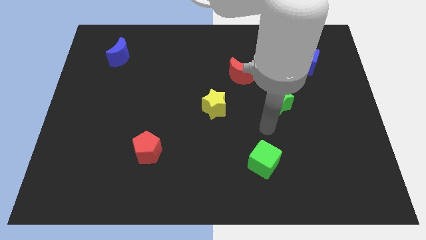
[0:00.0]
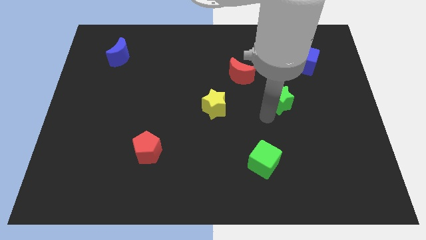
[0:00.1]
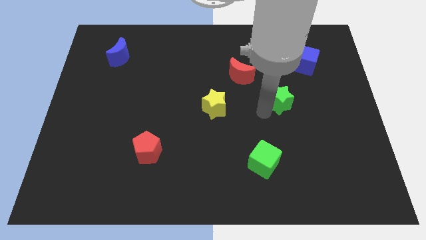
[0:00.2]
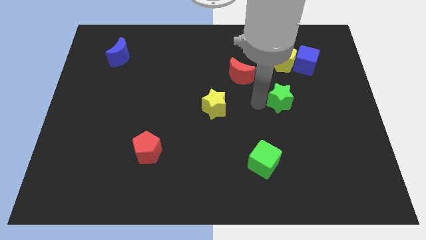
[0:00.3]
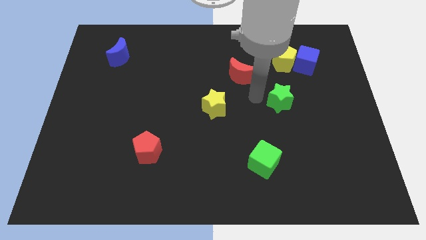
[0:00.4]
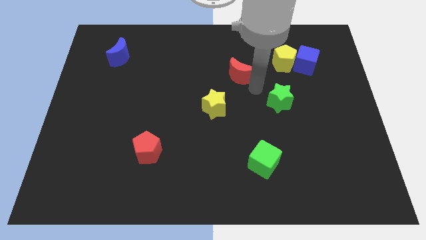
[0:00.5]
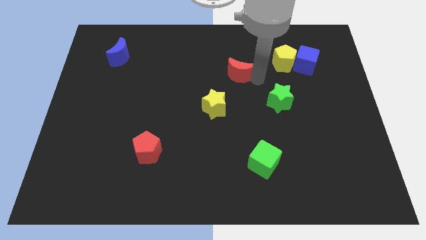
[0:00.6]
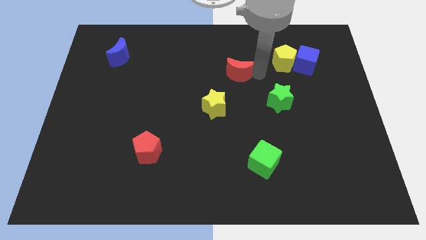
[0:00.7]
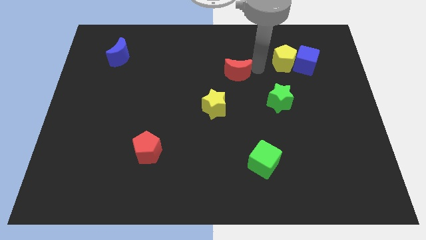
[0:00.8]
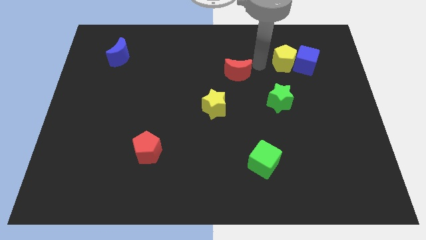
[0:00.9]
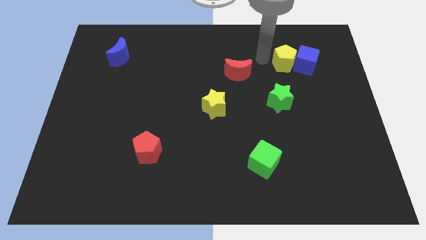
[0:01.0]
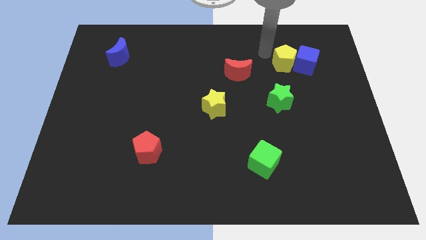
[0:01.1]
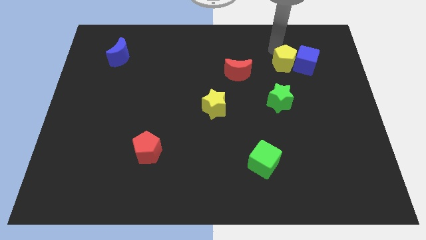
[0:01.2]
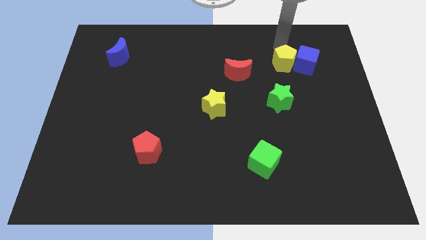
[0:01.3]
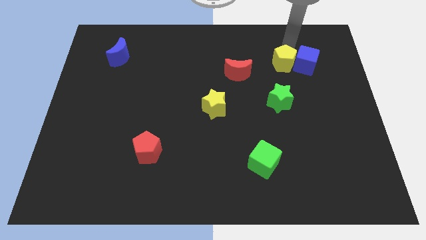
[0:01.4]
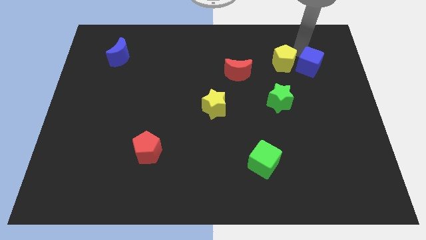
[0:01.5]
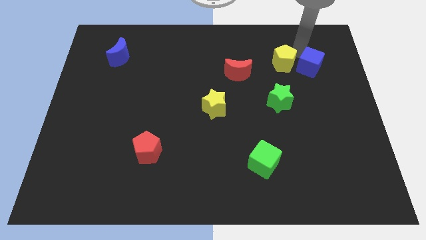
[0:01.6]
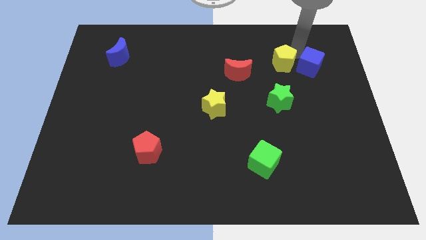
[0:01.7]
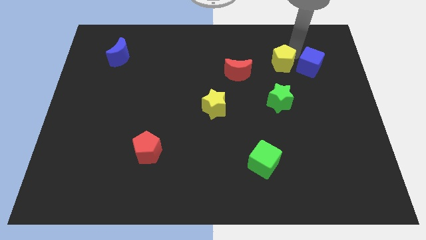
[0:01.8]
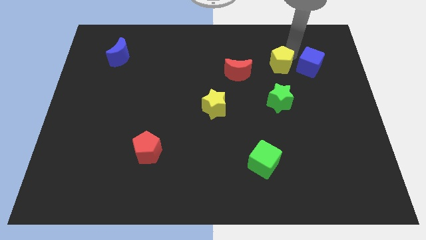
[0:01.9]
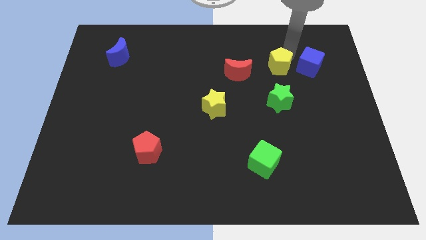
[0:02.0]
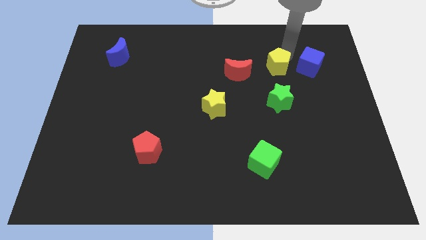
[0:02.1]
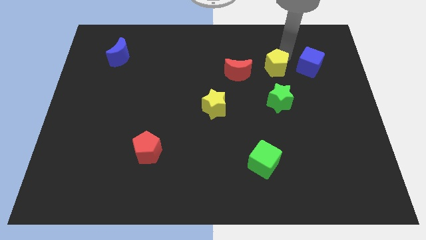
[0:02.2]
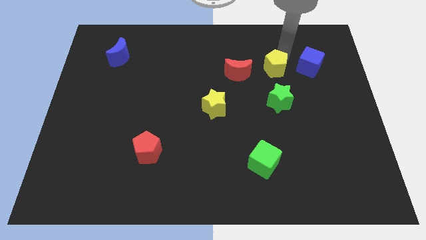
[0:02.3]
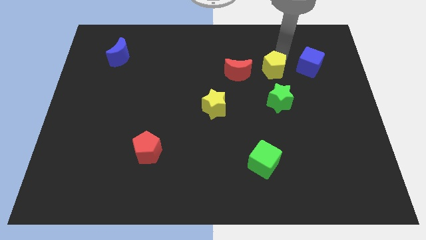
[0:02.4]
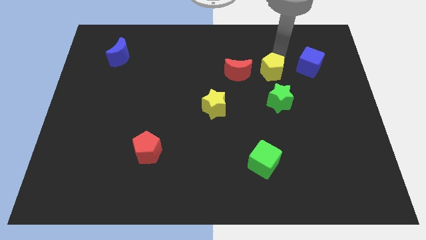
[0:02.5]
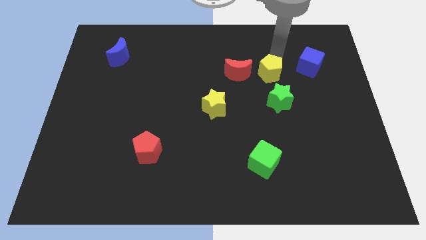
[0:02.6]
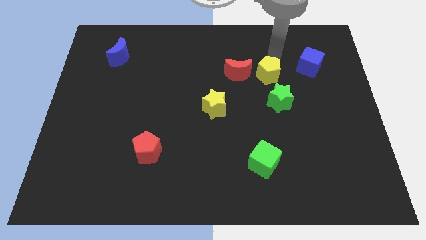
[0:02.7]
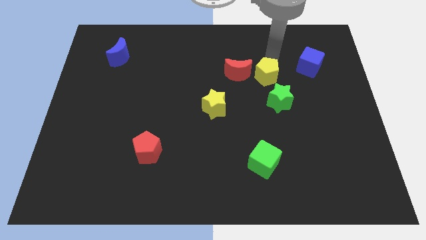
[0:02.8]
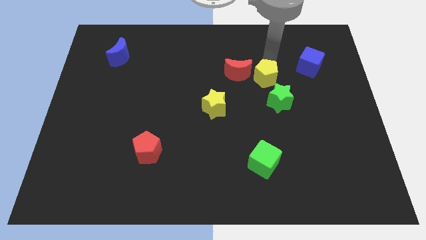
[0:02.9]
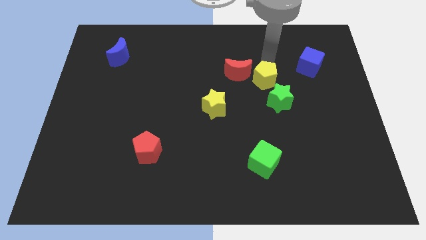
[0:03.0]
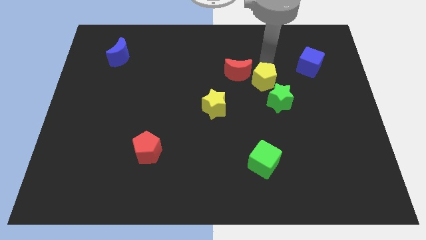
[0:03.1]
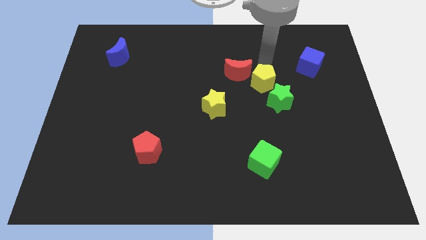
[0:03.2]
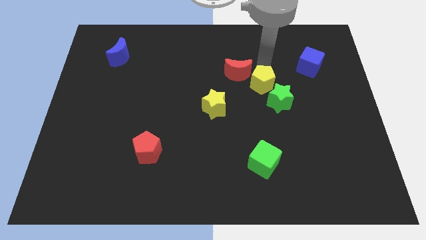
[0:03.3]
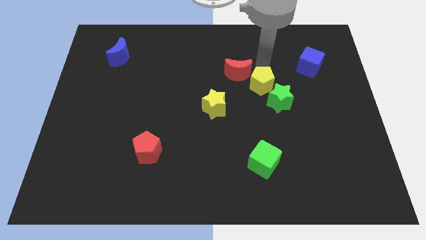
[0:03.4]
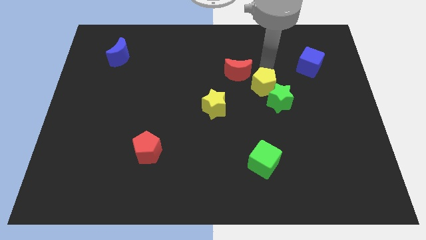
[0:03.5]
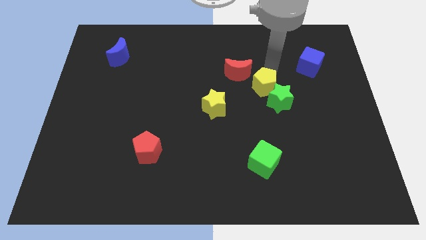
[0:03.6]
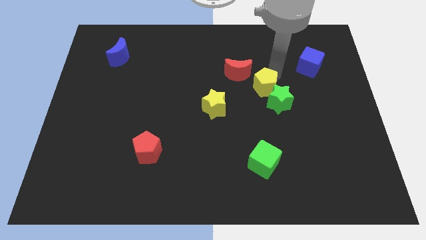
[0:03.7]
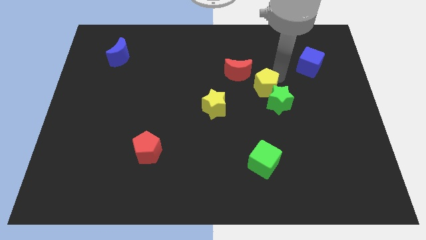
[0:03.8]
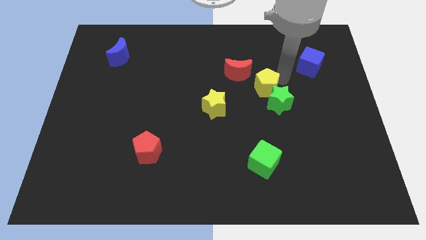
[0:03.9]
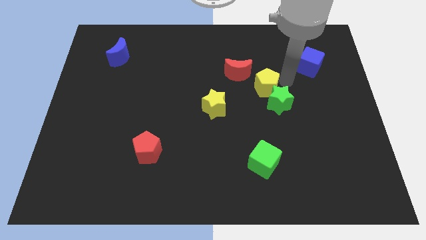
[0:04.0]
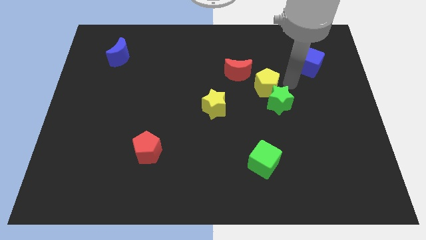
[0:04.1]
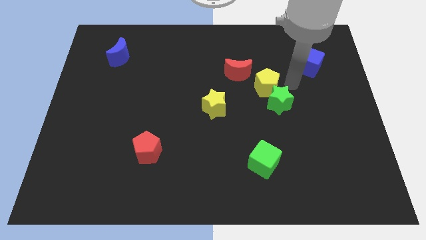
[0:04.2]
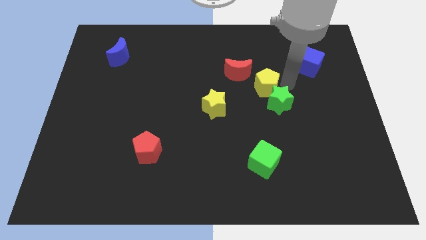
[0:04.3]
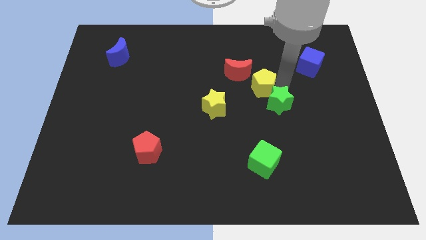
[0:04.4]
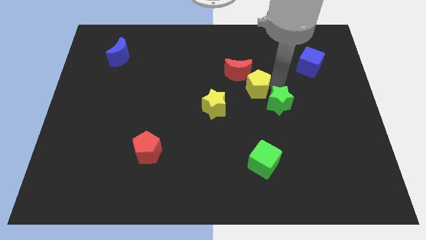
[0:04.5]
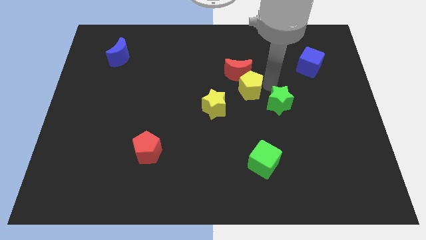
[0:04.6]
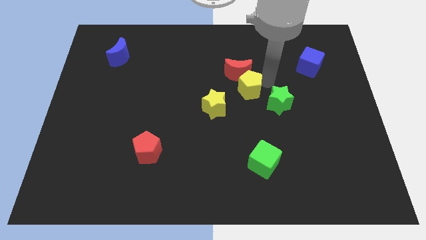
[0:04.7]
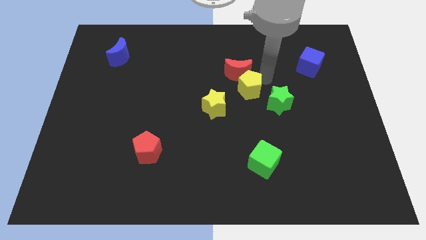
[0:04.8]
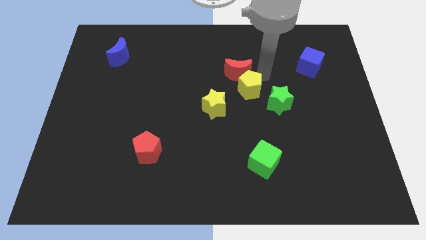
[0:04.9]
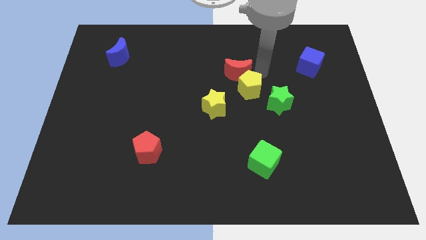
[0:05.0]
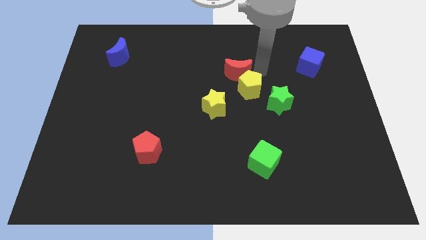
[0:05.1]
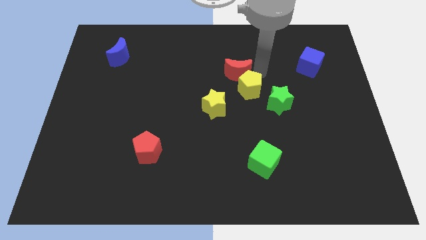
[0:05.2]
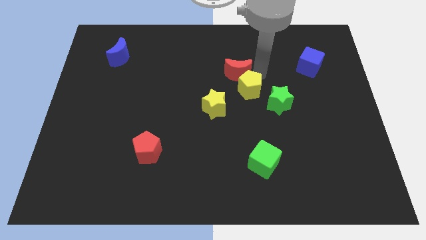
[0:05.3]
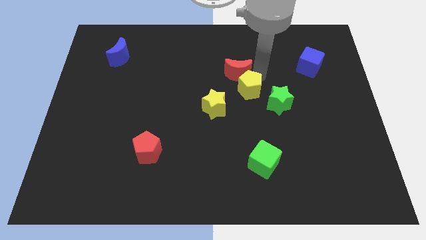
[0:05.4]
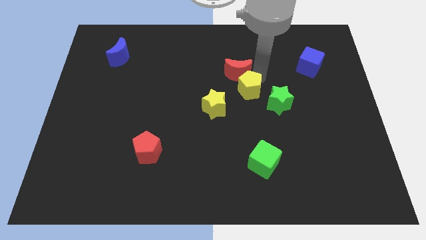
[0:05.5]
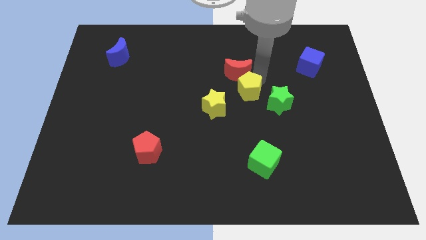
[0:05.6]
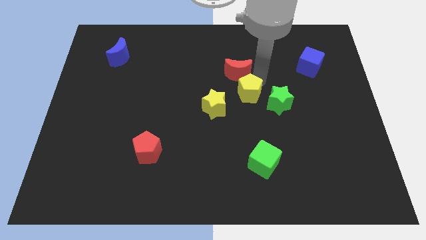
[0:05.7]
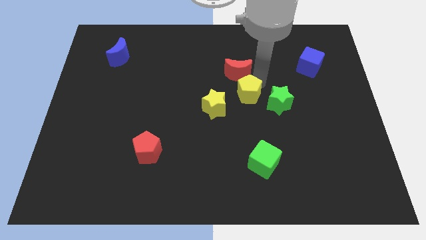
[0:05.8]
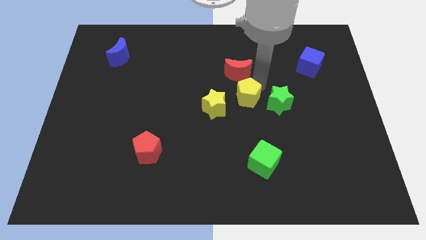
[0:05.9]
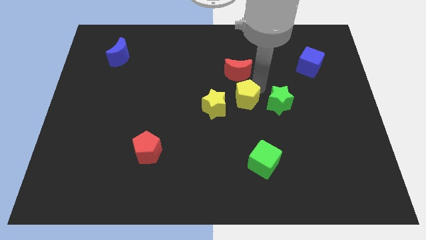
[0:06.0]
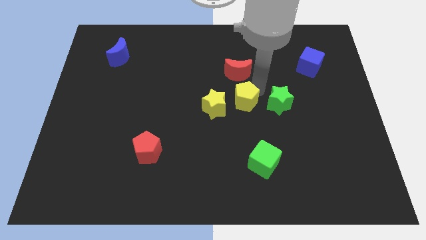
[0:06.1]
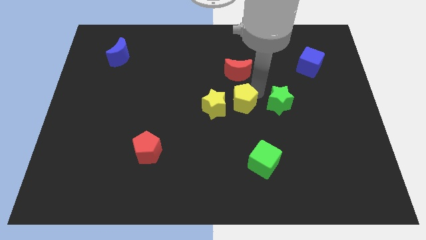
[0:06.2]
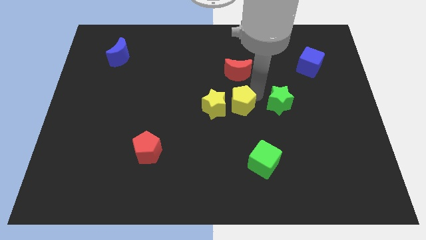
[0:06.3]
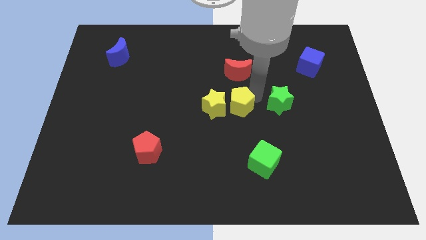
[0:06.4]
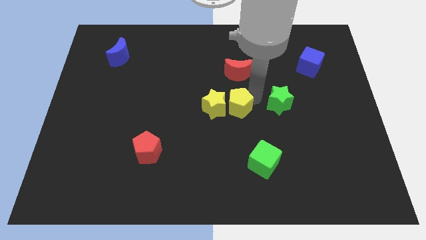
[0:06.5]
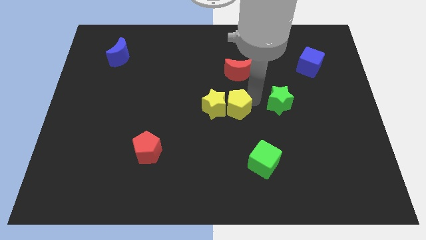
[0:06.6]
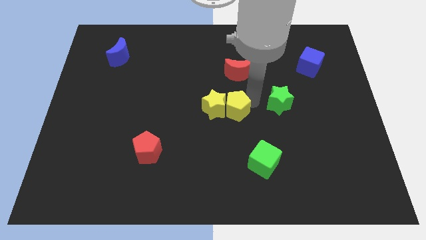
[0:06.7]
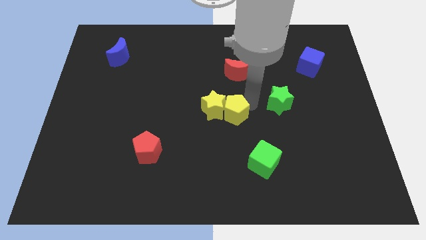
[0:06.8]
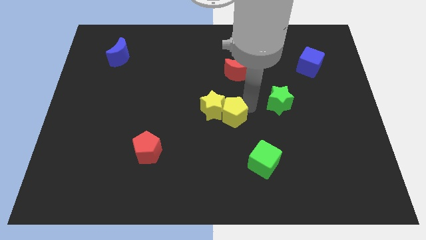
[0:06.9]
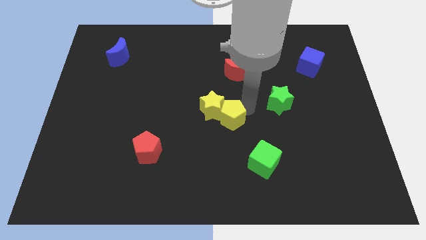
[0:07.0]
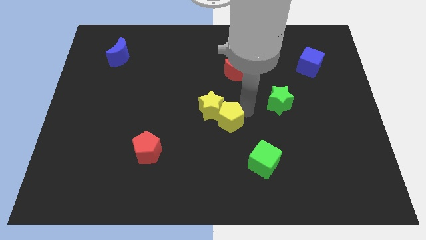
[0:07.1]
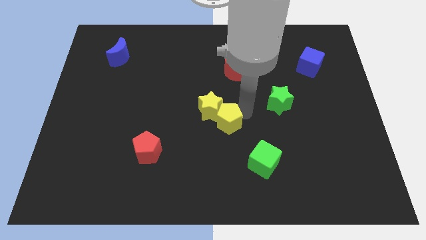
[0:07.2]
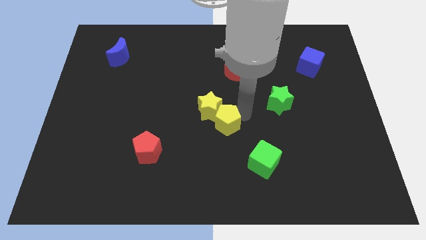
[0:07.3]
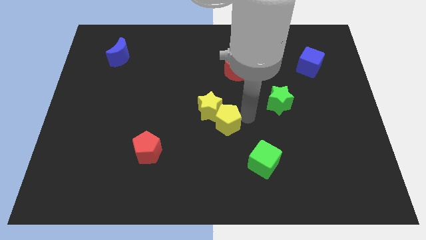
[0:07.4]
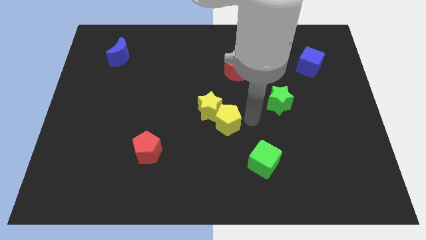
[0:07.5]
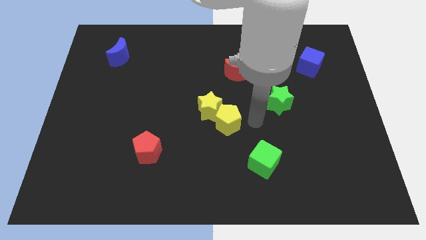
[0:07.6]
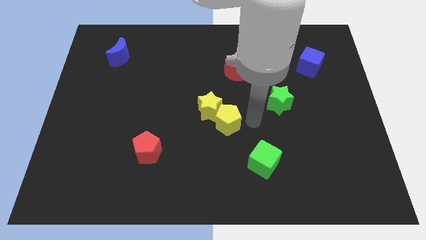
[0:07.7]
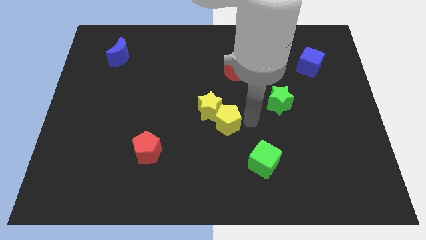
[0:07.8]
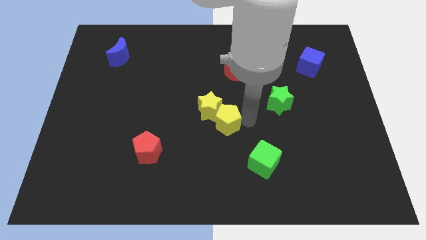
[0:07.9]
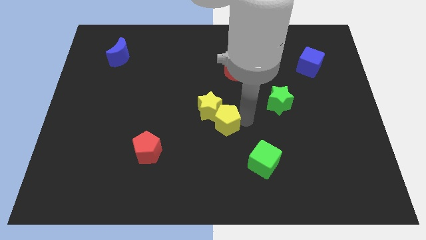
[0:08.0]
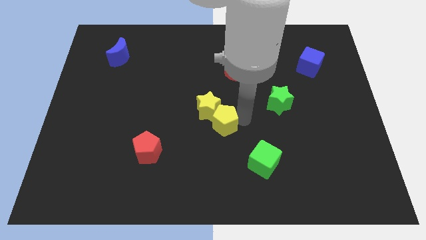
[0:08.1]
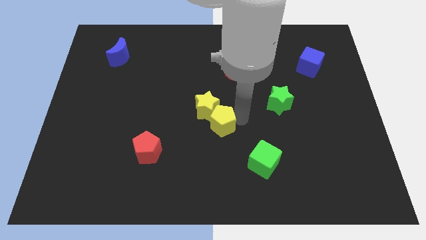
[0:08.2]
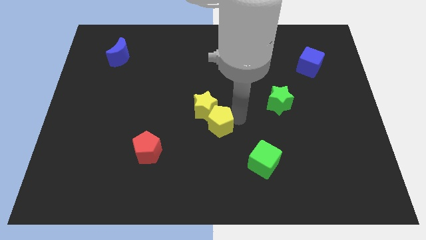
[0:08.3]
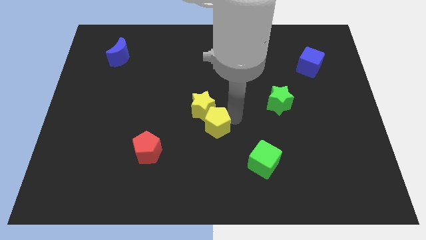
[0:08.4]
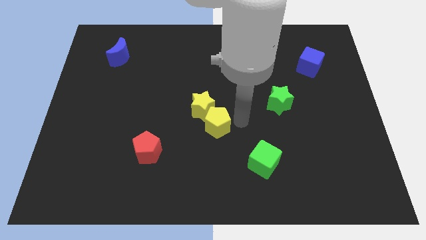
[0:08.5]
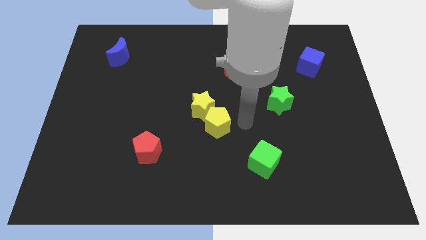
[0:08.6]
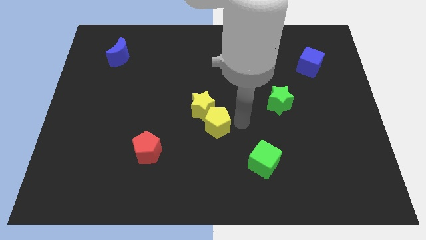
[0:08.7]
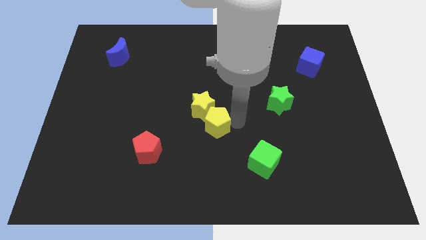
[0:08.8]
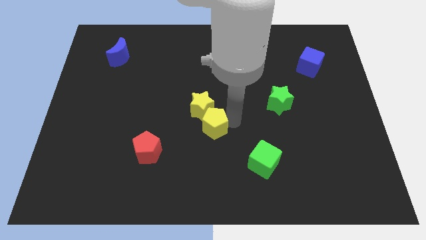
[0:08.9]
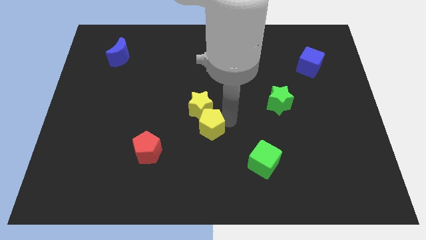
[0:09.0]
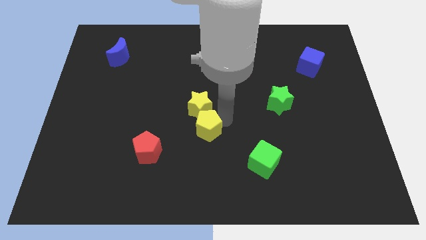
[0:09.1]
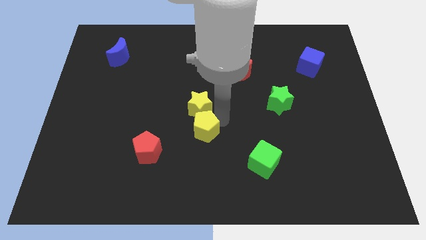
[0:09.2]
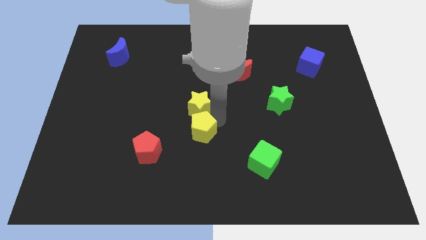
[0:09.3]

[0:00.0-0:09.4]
push the yellow pentagon diagonally down and to the left of the yellow star
